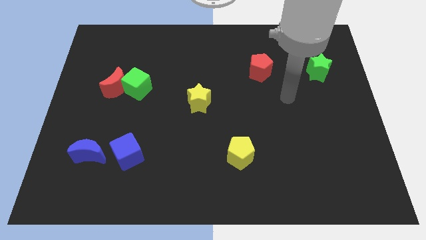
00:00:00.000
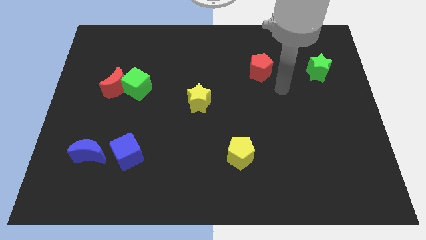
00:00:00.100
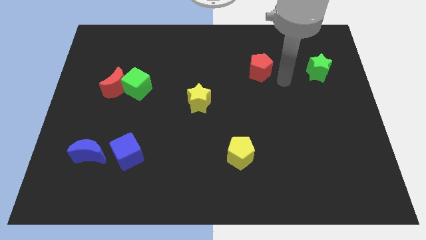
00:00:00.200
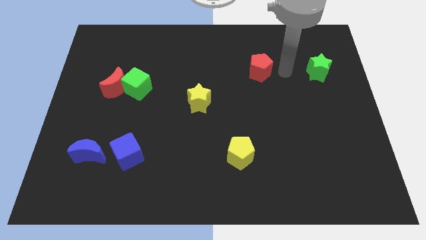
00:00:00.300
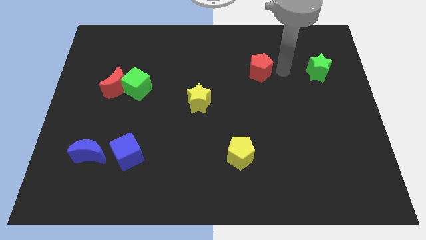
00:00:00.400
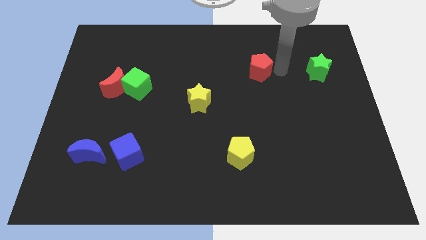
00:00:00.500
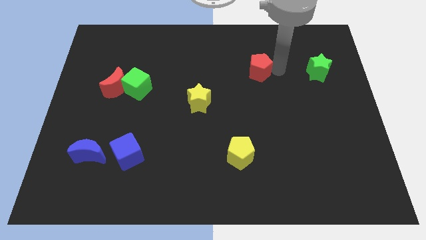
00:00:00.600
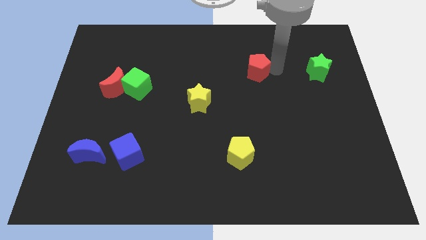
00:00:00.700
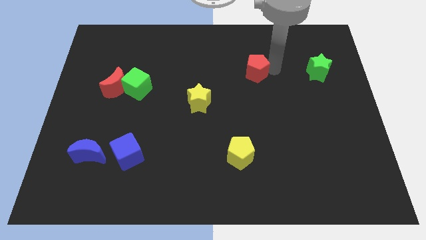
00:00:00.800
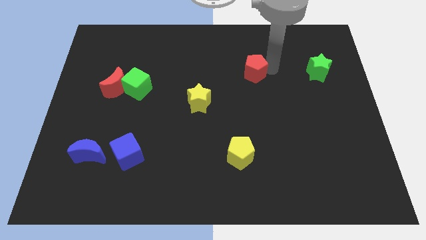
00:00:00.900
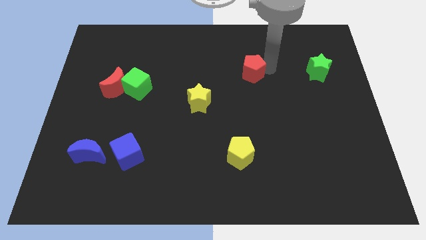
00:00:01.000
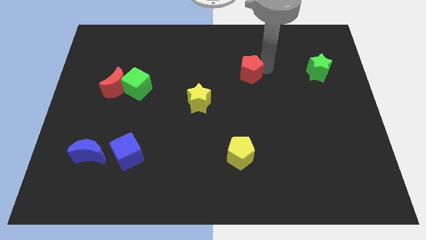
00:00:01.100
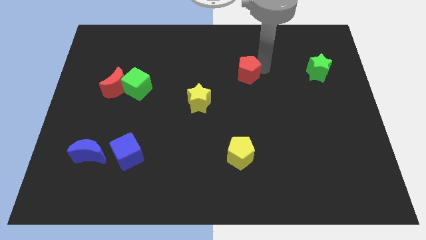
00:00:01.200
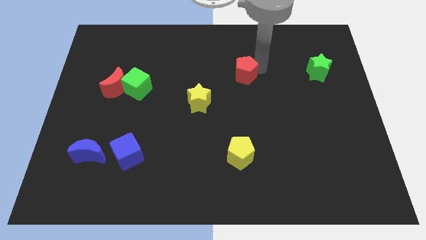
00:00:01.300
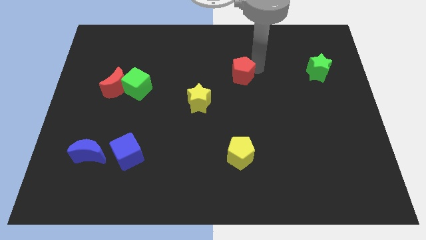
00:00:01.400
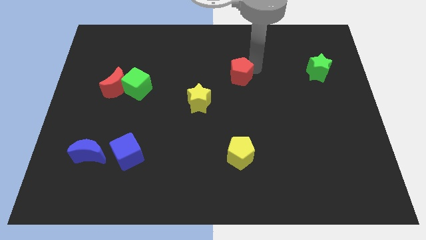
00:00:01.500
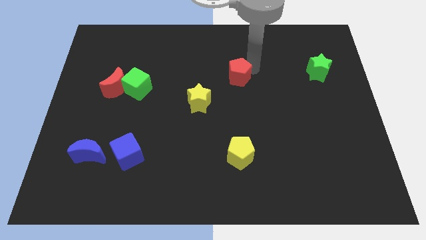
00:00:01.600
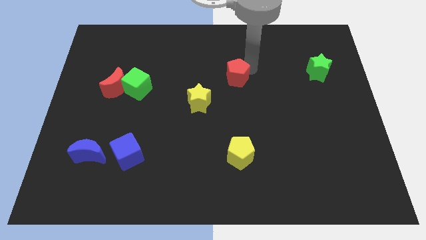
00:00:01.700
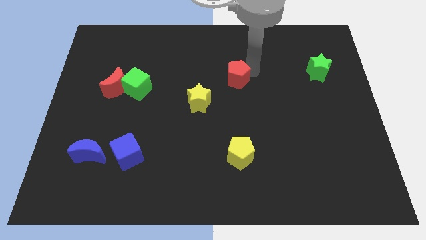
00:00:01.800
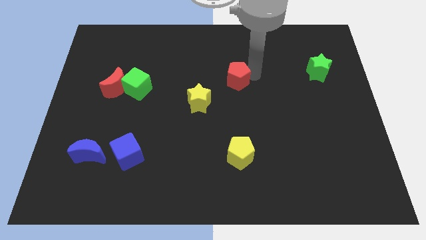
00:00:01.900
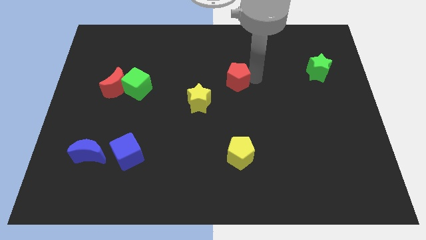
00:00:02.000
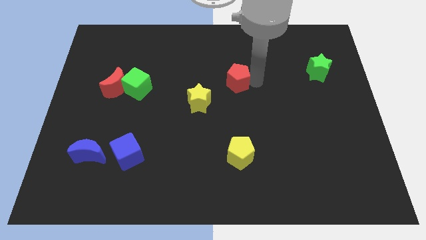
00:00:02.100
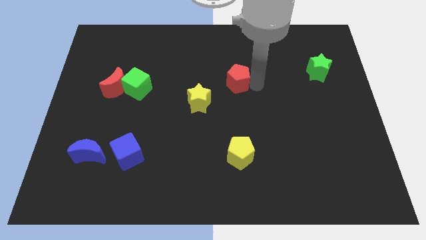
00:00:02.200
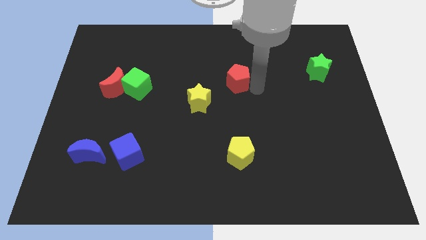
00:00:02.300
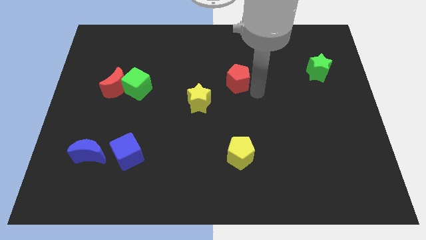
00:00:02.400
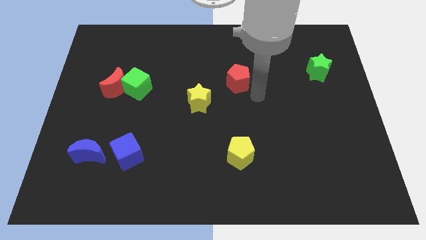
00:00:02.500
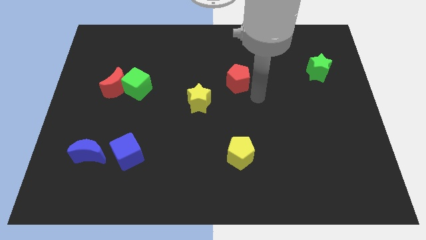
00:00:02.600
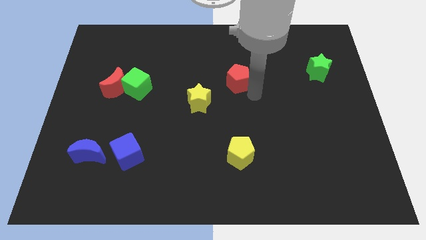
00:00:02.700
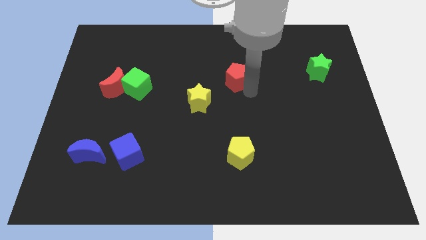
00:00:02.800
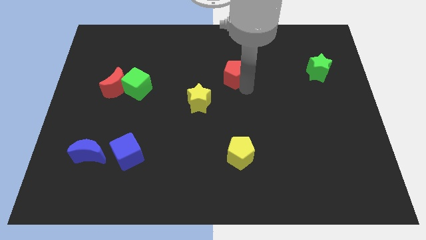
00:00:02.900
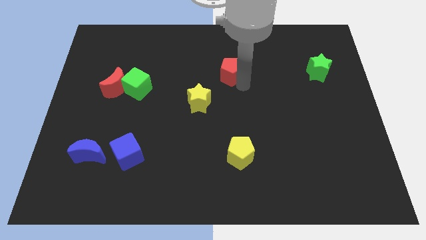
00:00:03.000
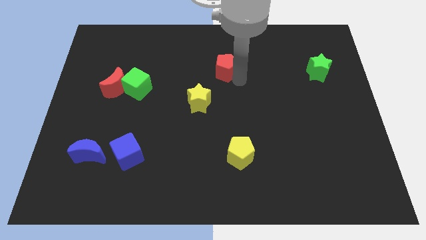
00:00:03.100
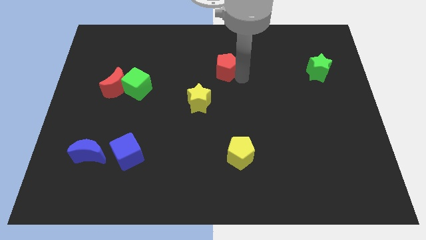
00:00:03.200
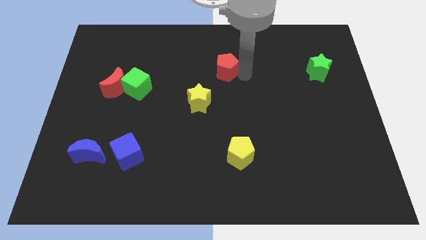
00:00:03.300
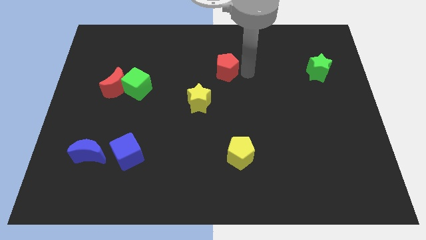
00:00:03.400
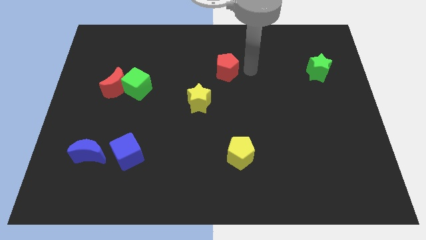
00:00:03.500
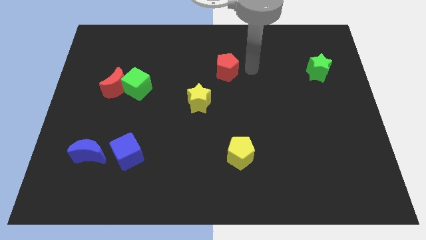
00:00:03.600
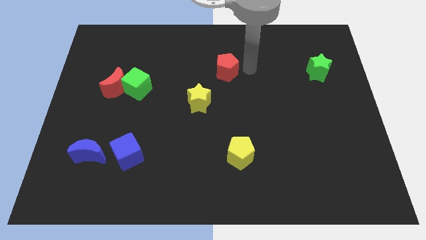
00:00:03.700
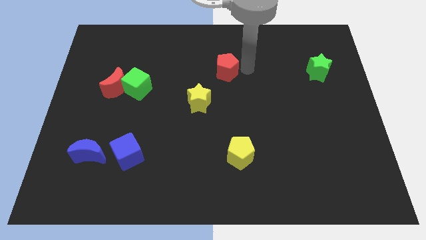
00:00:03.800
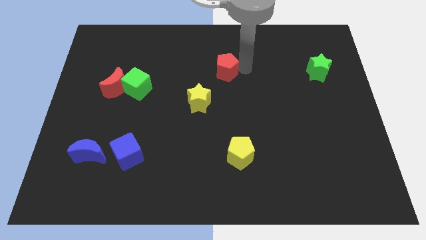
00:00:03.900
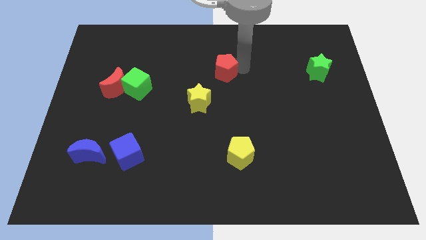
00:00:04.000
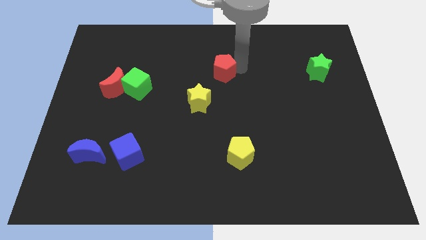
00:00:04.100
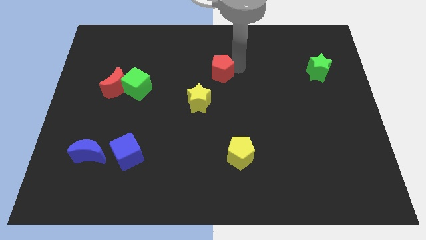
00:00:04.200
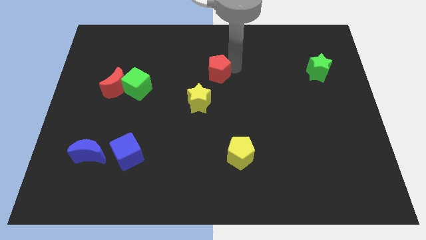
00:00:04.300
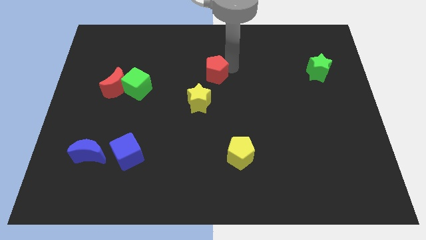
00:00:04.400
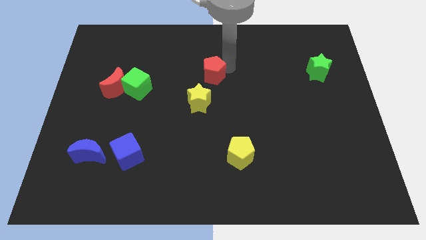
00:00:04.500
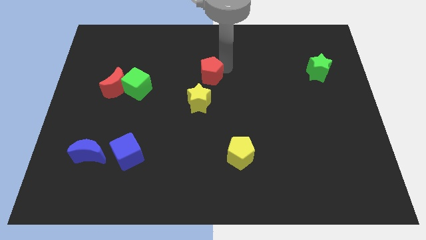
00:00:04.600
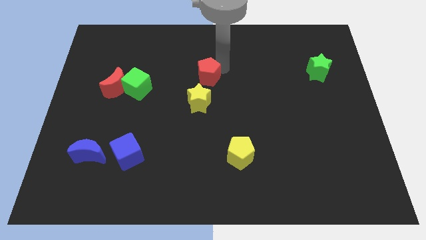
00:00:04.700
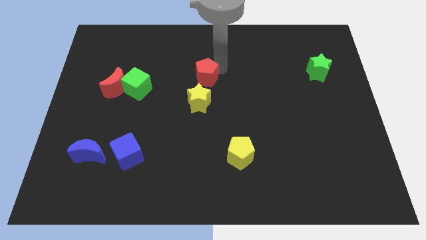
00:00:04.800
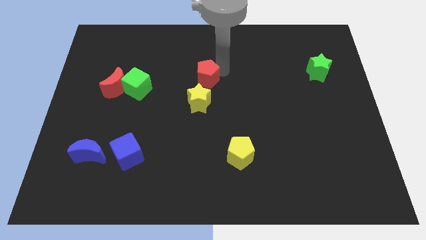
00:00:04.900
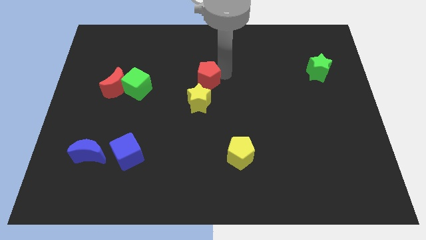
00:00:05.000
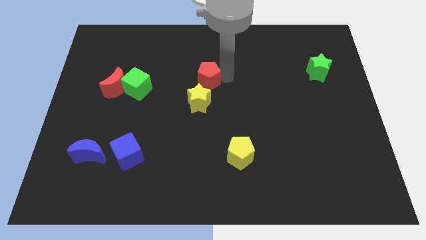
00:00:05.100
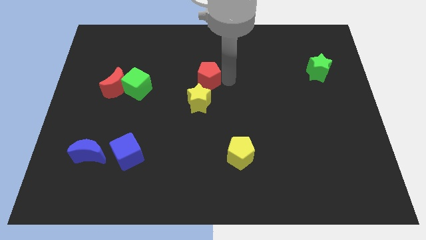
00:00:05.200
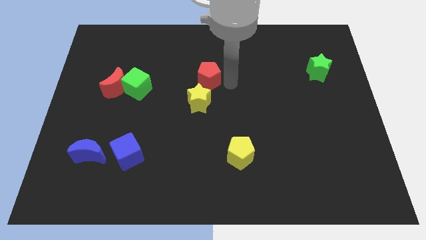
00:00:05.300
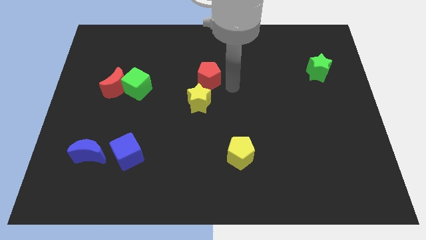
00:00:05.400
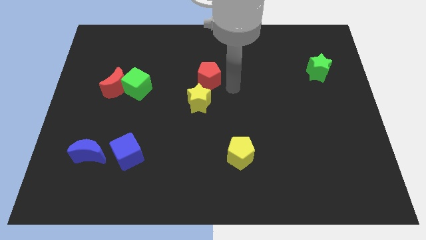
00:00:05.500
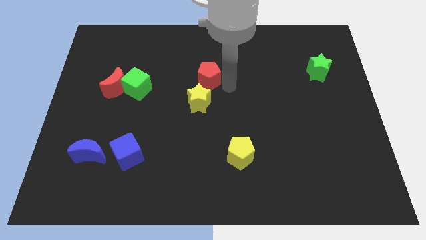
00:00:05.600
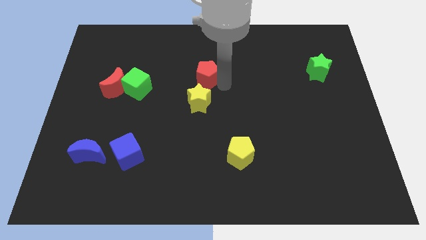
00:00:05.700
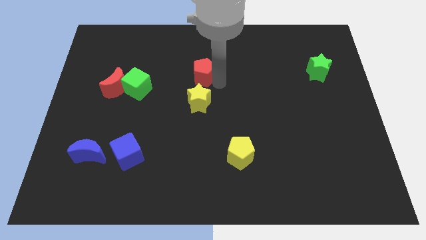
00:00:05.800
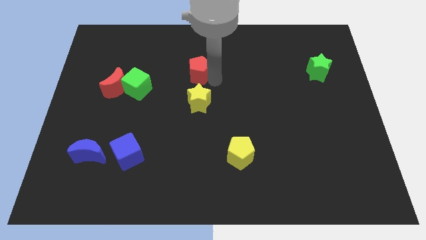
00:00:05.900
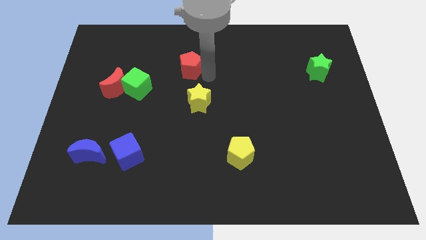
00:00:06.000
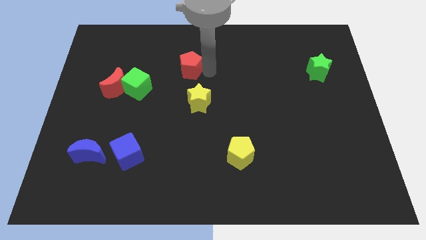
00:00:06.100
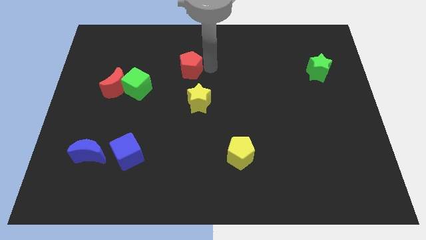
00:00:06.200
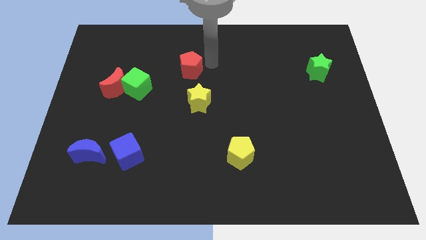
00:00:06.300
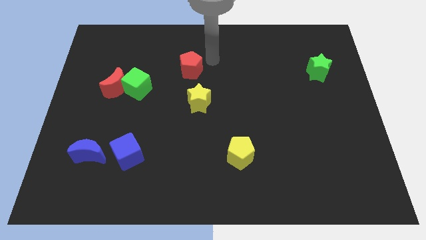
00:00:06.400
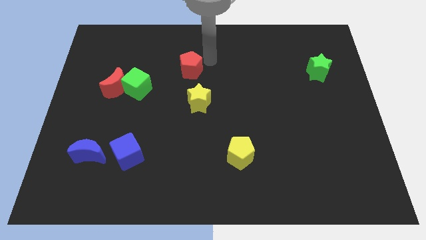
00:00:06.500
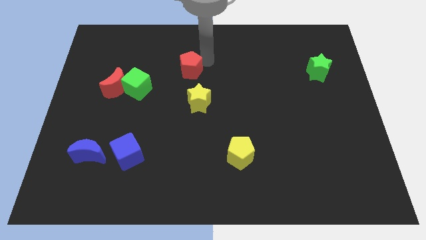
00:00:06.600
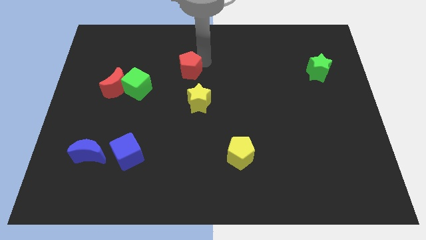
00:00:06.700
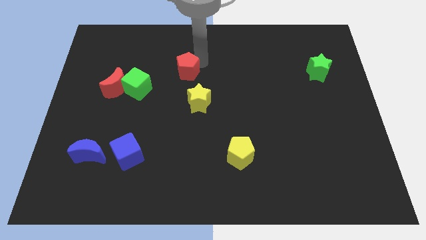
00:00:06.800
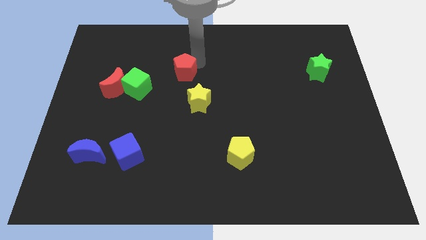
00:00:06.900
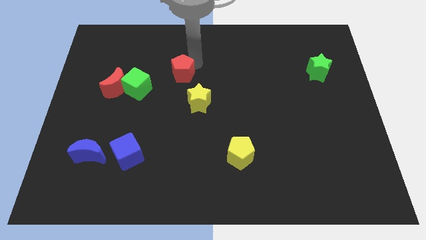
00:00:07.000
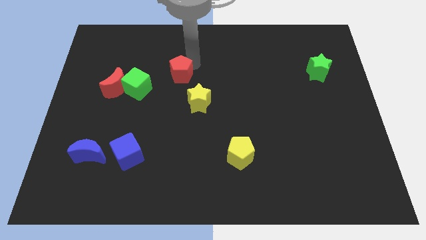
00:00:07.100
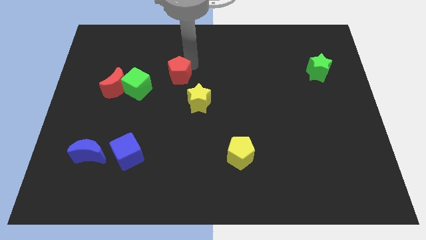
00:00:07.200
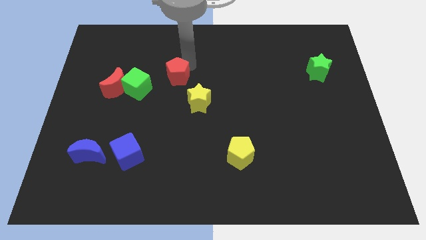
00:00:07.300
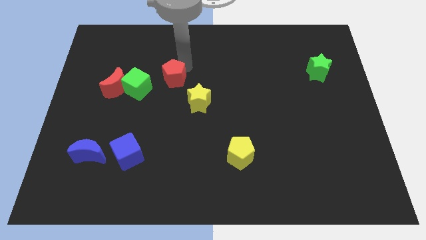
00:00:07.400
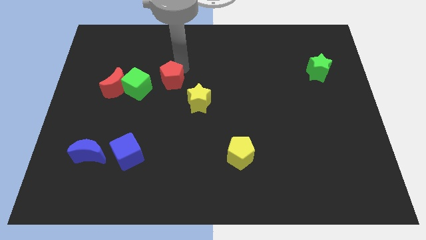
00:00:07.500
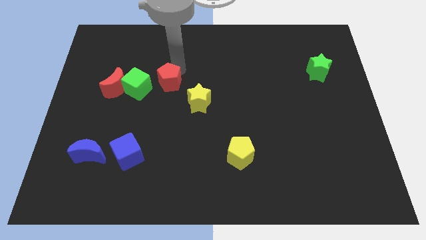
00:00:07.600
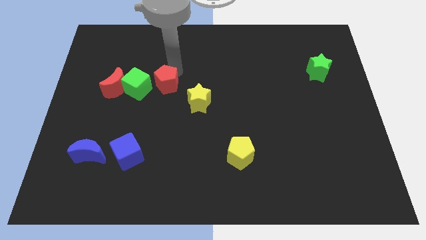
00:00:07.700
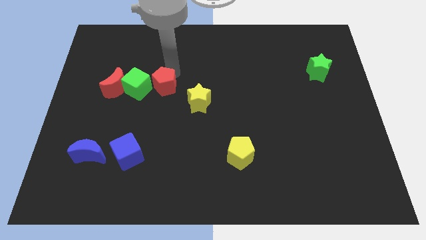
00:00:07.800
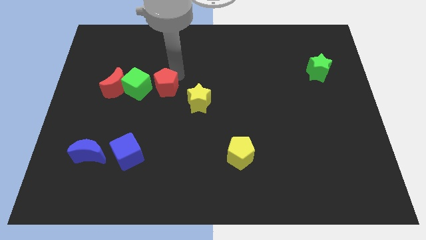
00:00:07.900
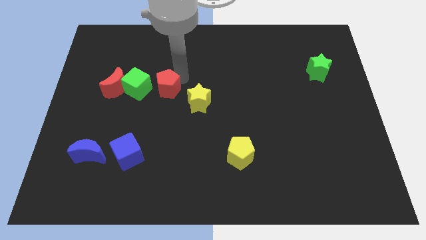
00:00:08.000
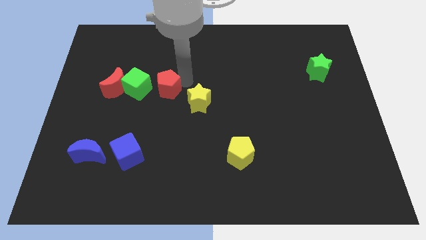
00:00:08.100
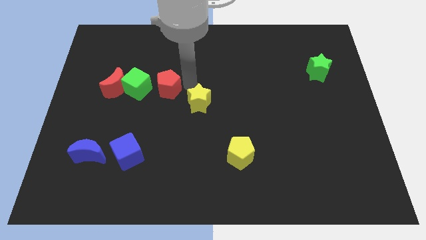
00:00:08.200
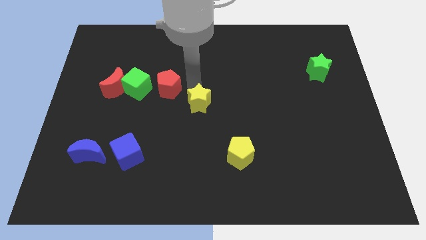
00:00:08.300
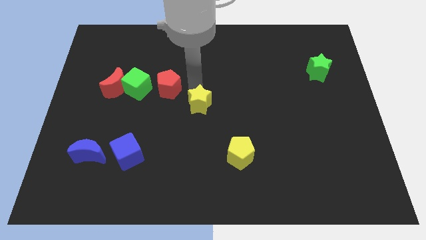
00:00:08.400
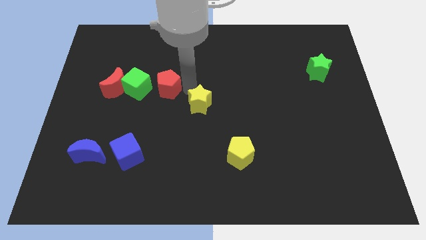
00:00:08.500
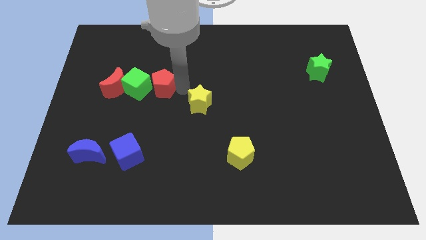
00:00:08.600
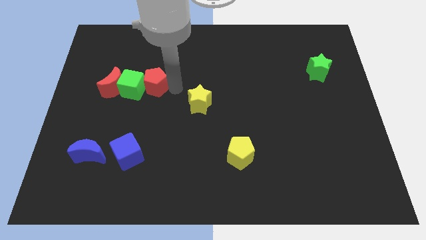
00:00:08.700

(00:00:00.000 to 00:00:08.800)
slide the red pentagon next to the green cube
